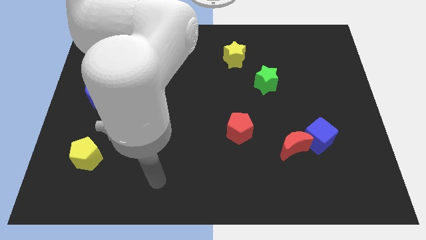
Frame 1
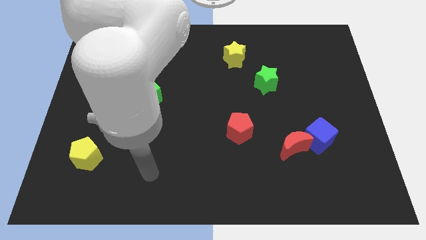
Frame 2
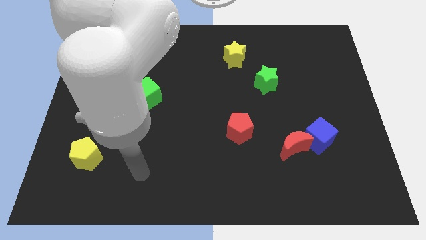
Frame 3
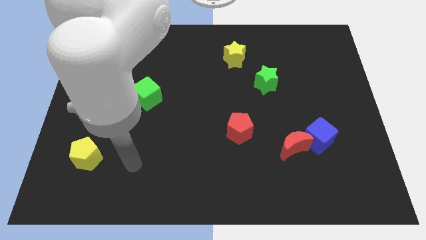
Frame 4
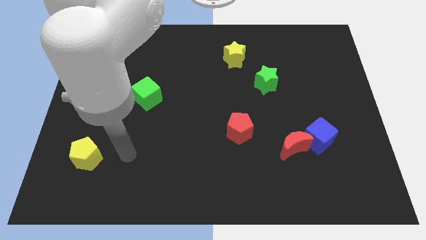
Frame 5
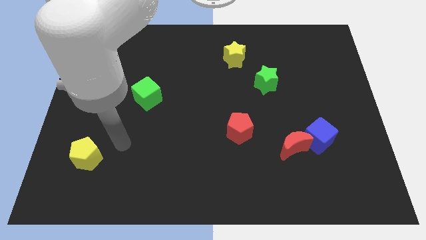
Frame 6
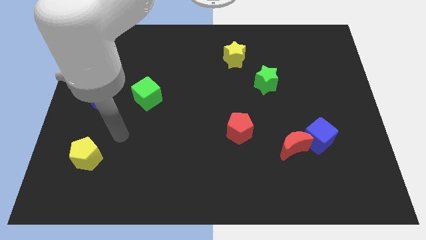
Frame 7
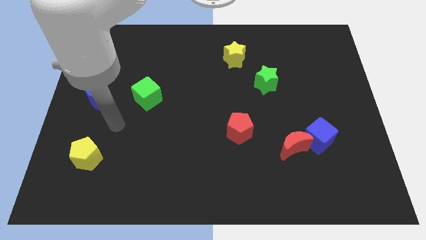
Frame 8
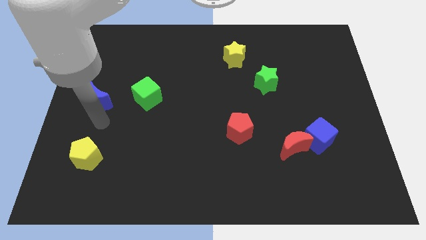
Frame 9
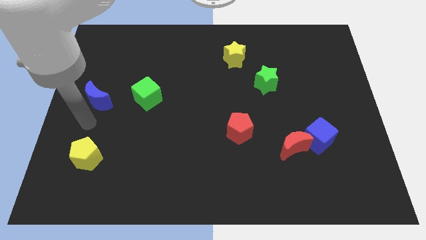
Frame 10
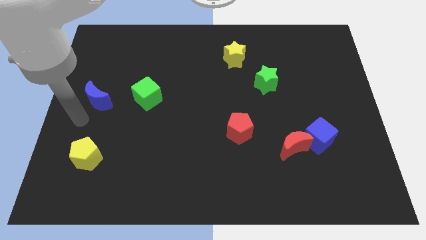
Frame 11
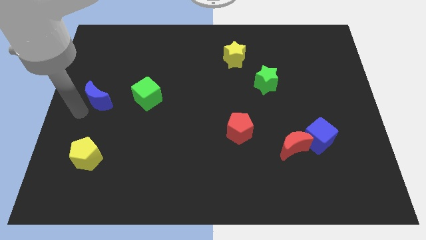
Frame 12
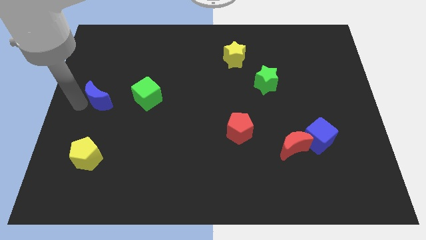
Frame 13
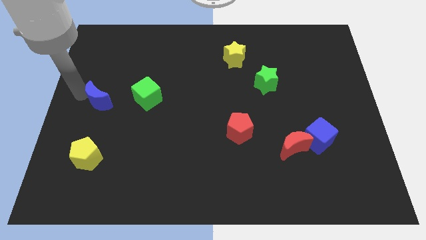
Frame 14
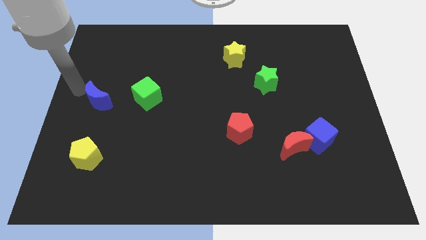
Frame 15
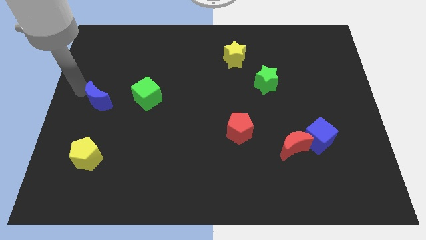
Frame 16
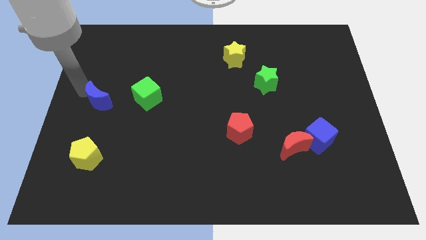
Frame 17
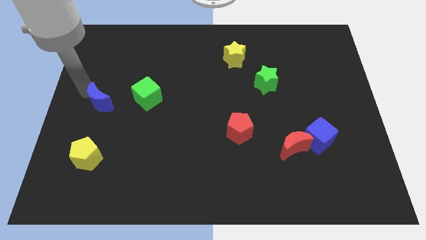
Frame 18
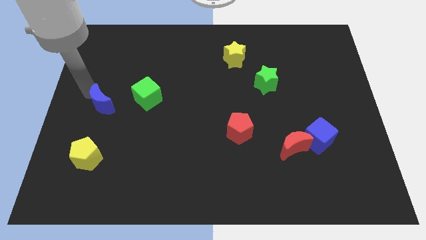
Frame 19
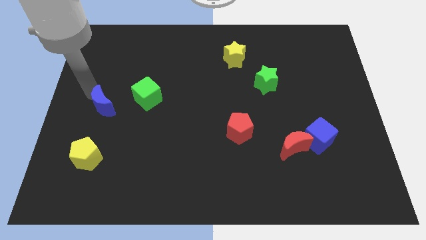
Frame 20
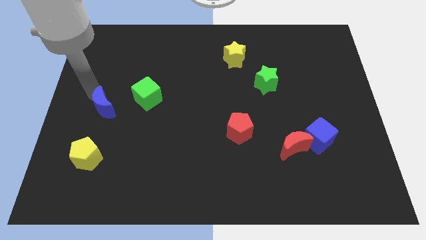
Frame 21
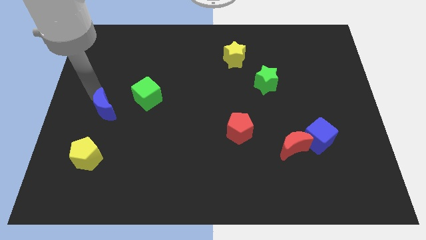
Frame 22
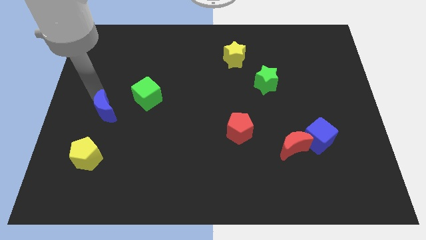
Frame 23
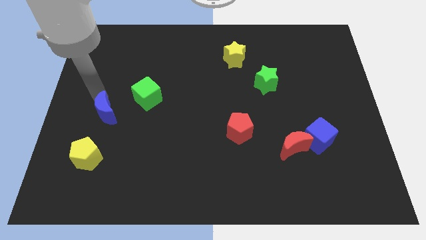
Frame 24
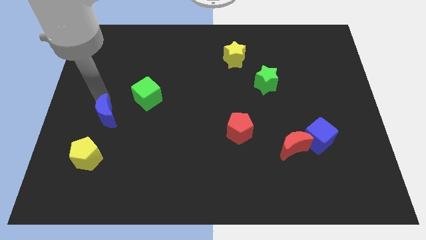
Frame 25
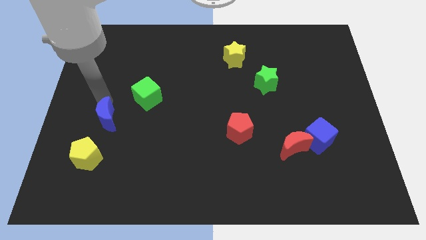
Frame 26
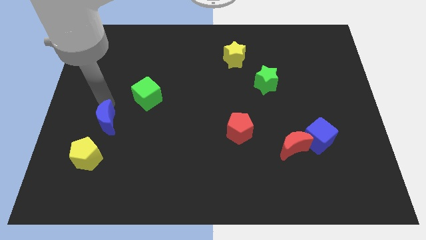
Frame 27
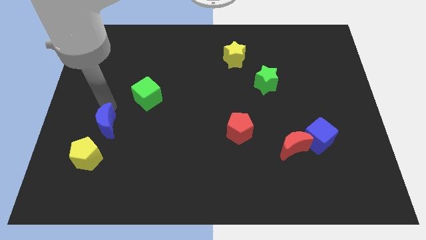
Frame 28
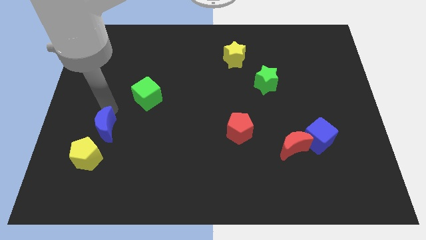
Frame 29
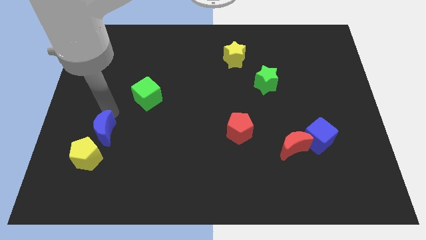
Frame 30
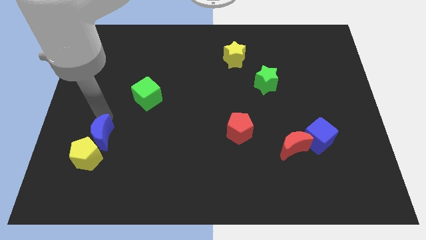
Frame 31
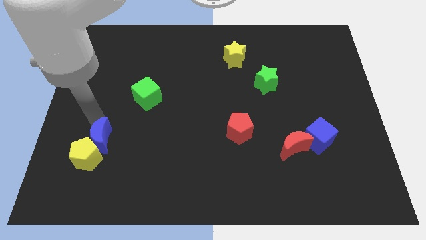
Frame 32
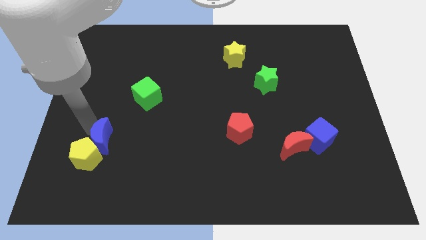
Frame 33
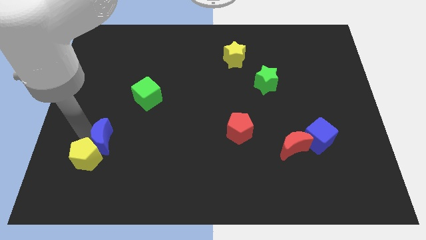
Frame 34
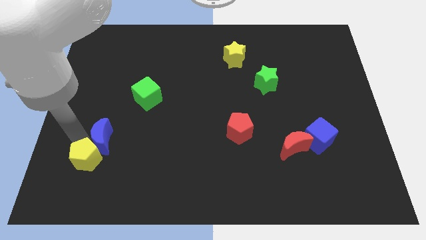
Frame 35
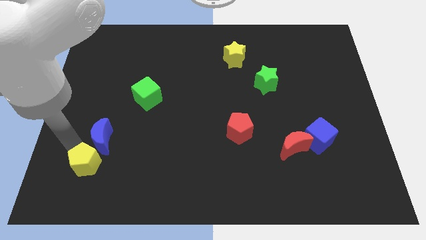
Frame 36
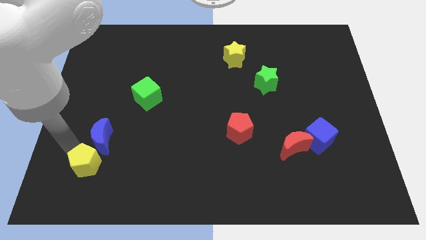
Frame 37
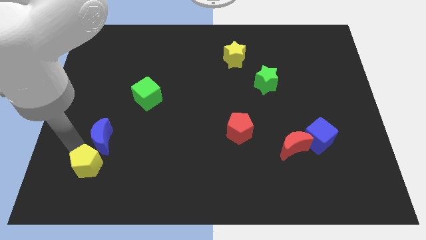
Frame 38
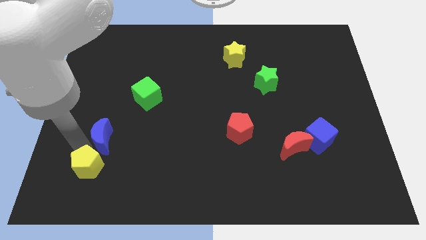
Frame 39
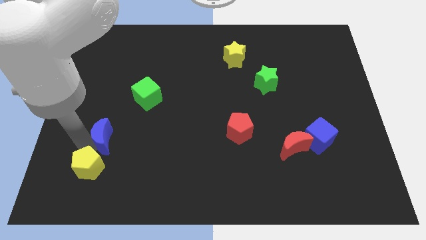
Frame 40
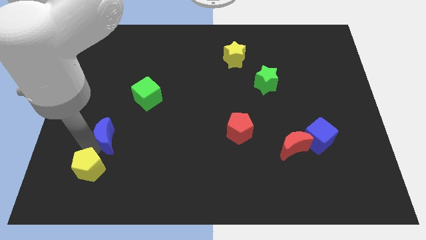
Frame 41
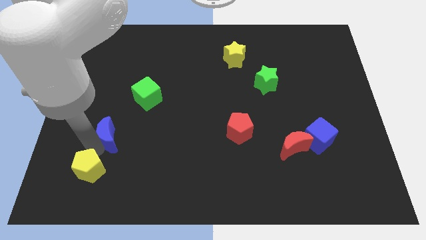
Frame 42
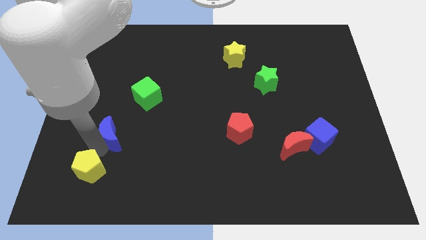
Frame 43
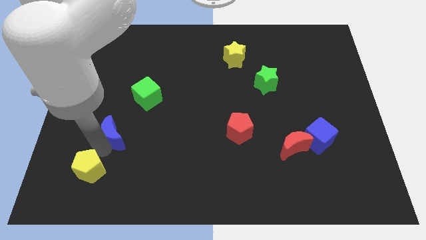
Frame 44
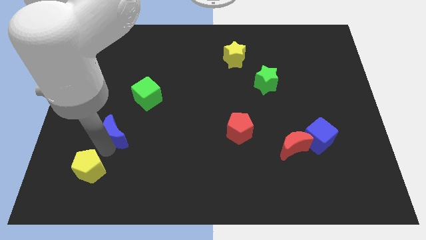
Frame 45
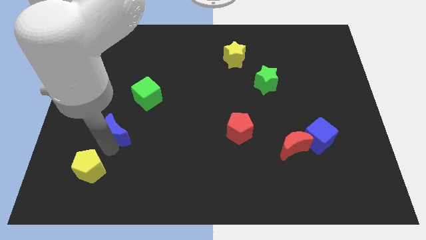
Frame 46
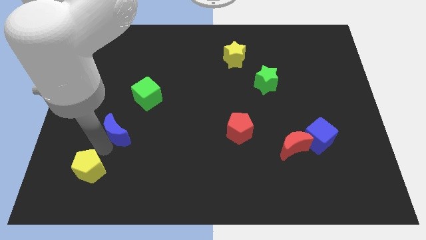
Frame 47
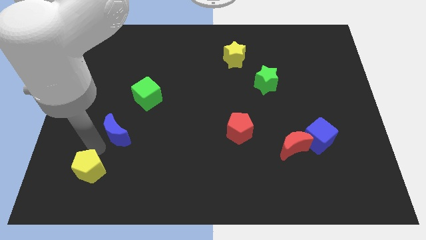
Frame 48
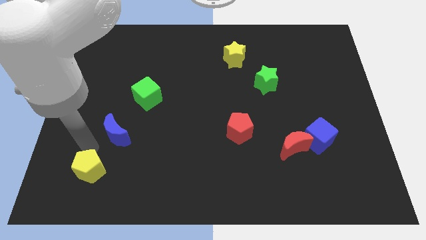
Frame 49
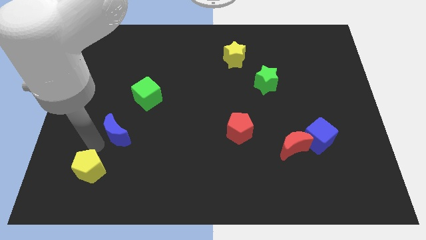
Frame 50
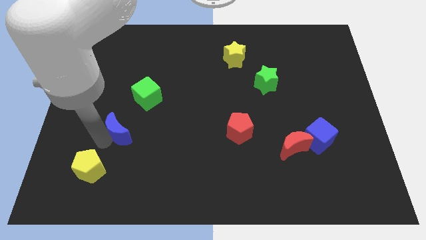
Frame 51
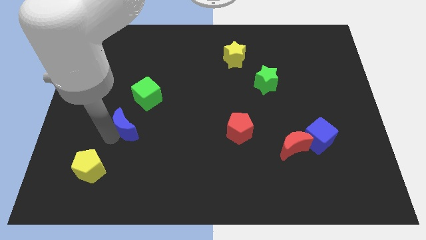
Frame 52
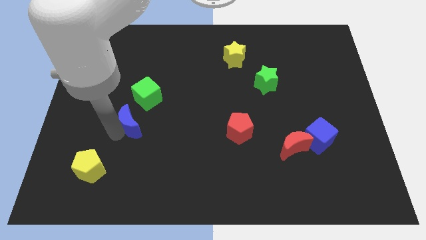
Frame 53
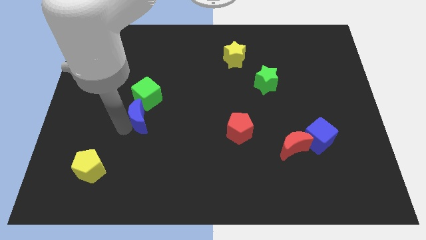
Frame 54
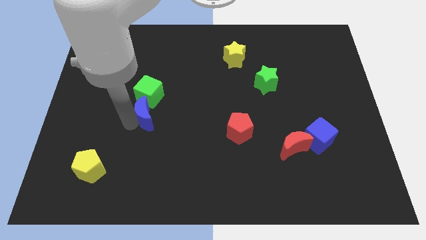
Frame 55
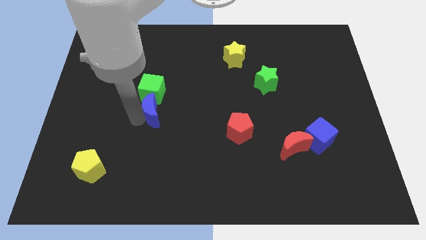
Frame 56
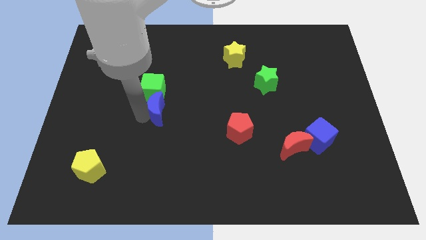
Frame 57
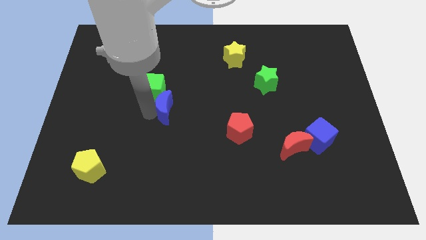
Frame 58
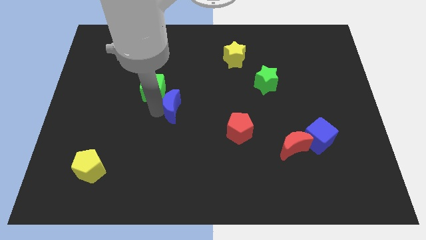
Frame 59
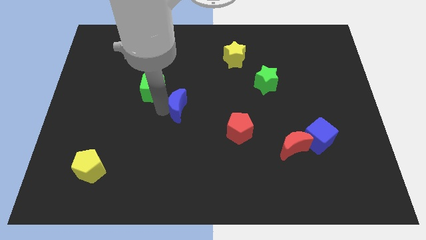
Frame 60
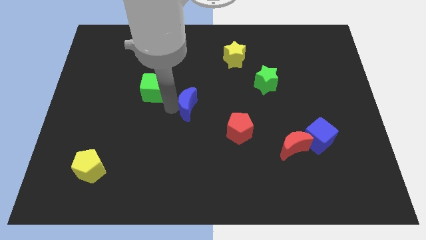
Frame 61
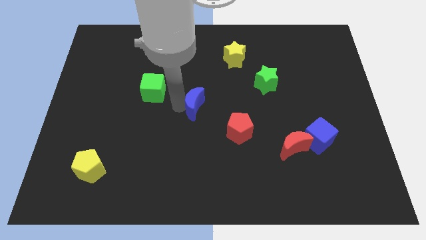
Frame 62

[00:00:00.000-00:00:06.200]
put the blue moon diagonally up and to the left of the red pentagon

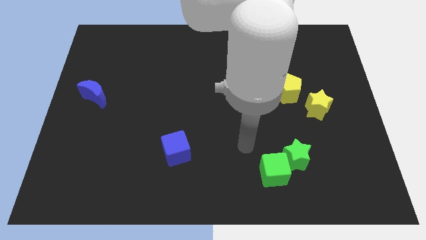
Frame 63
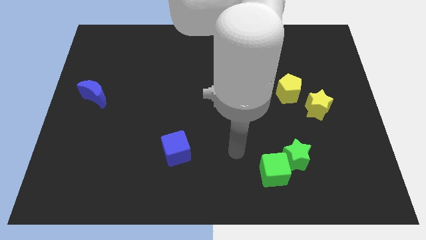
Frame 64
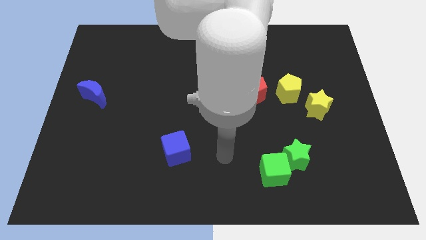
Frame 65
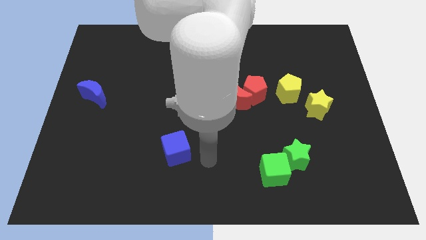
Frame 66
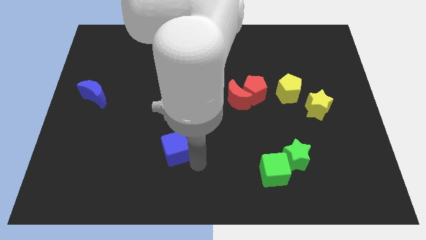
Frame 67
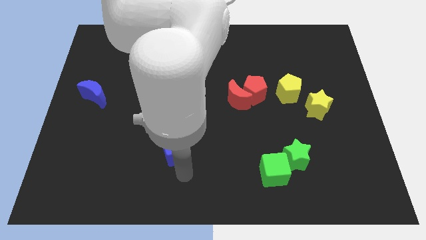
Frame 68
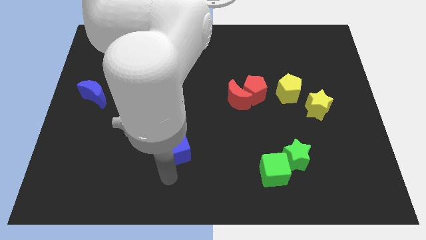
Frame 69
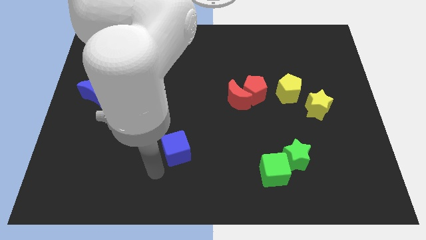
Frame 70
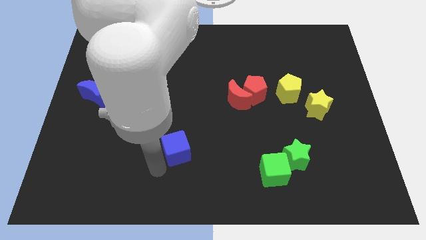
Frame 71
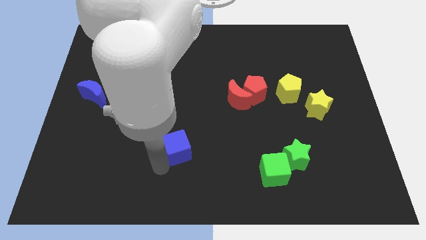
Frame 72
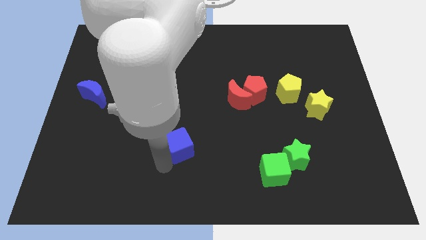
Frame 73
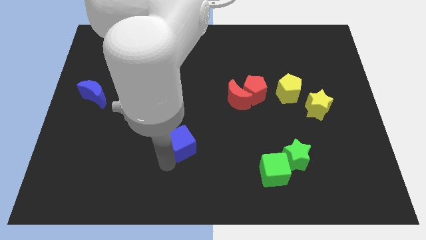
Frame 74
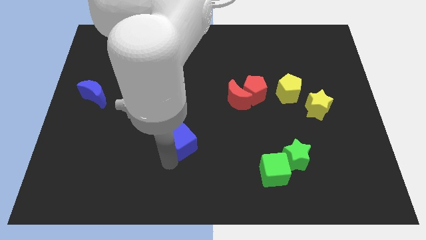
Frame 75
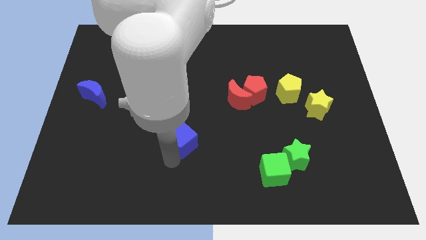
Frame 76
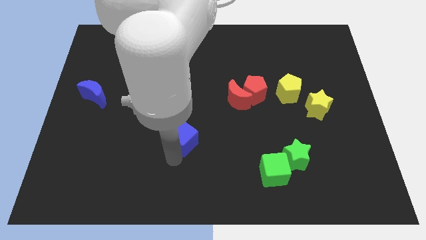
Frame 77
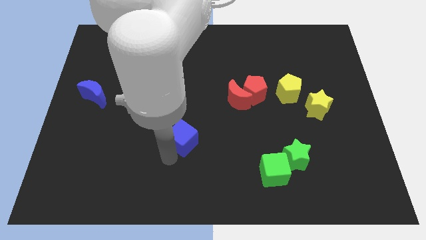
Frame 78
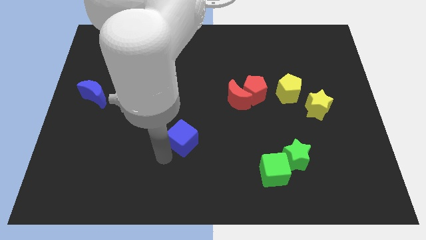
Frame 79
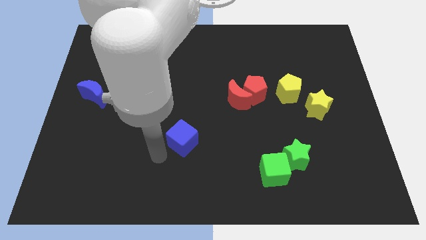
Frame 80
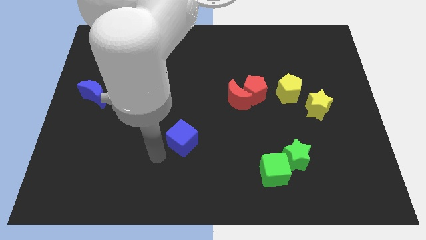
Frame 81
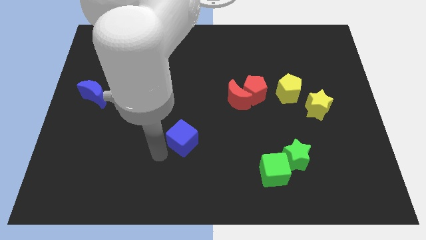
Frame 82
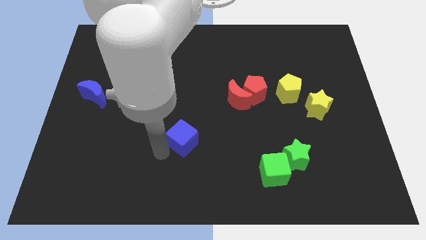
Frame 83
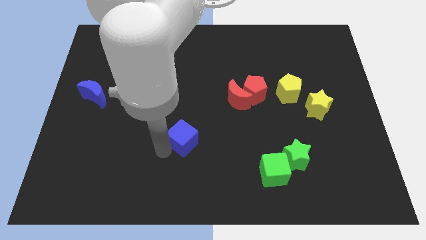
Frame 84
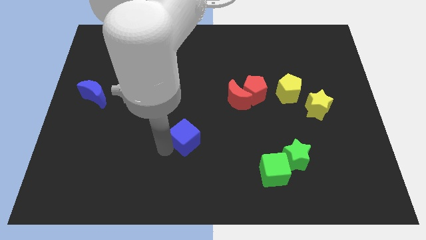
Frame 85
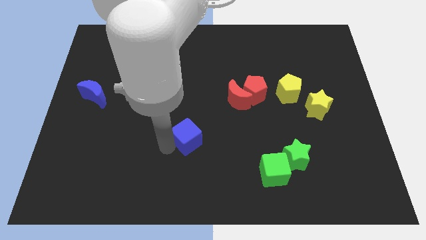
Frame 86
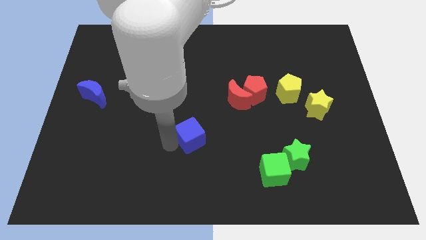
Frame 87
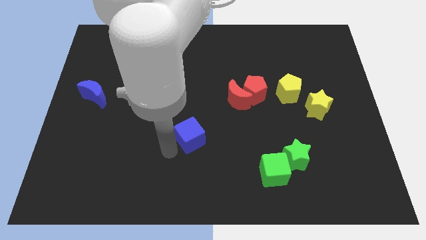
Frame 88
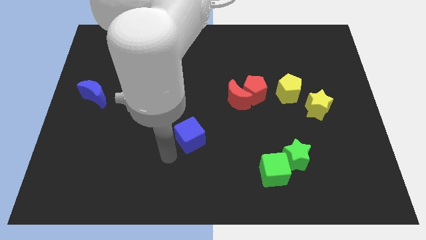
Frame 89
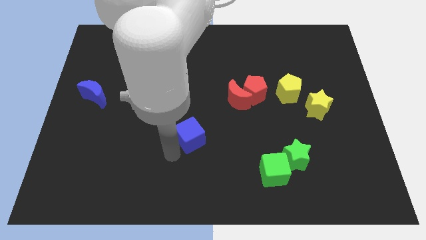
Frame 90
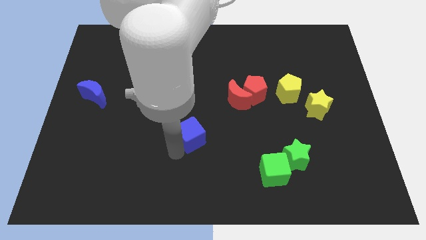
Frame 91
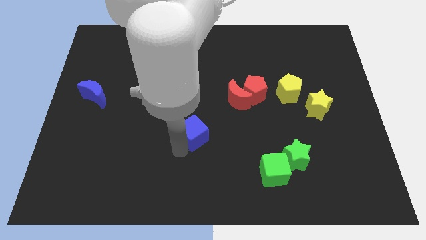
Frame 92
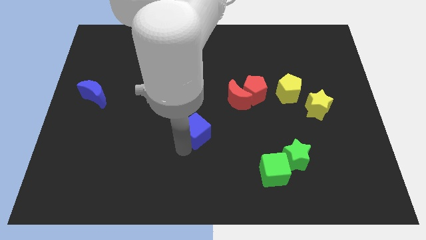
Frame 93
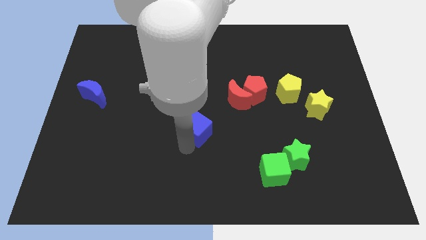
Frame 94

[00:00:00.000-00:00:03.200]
slide the blue cube diagonally down and to the left of the red moon
